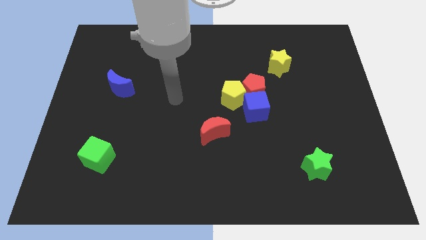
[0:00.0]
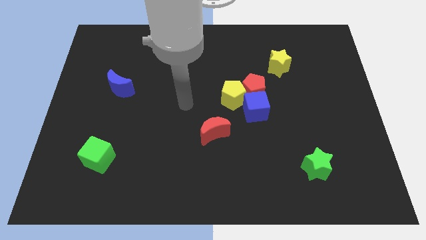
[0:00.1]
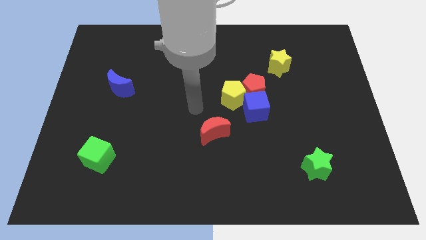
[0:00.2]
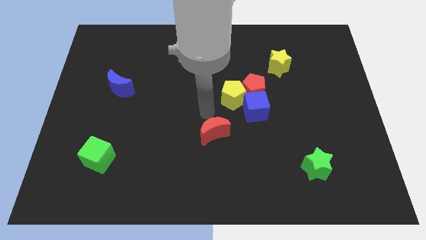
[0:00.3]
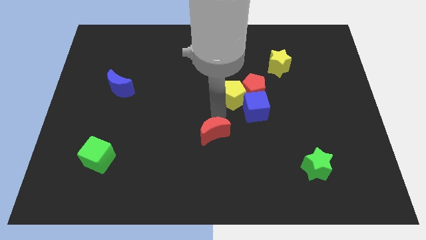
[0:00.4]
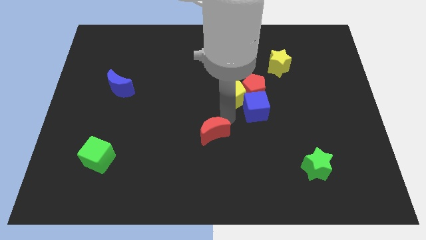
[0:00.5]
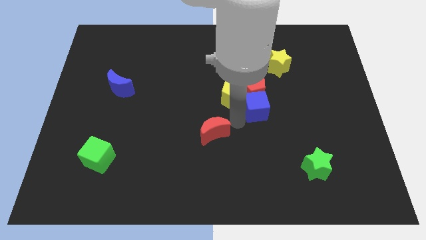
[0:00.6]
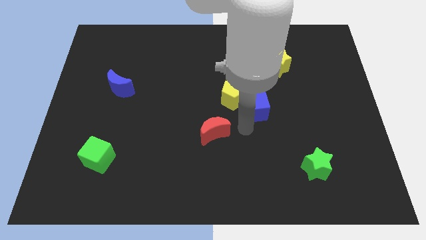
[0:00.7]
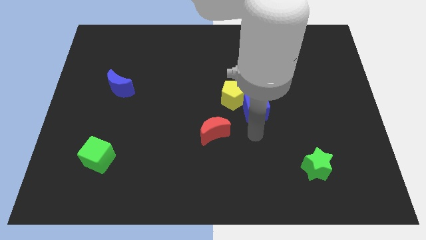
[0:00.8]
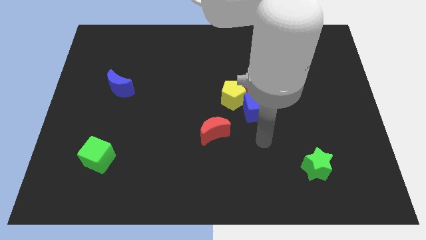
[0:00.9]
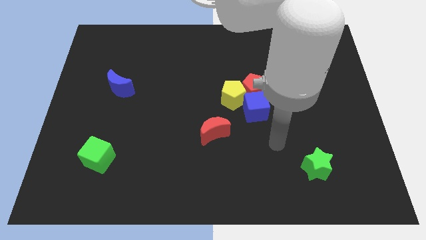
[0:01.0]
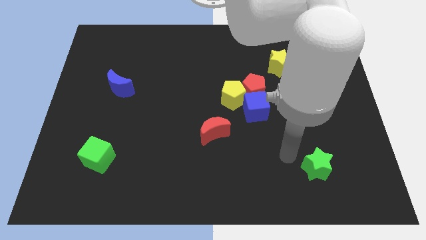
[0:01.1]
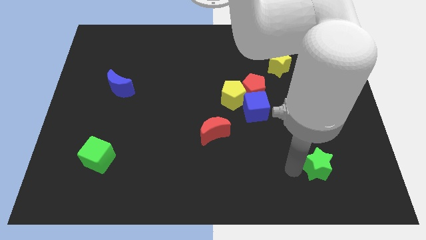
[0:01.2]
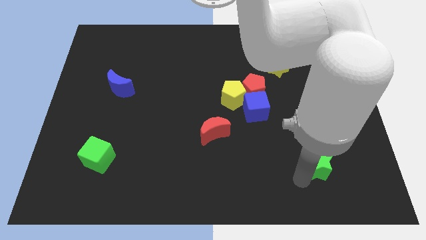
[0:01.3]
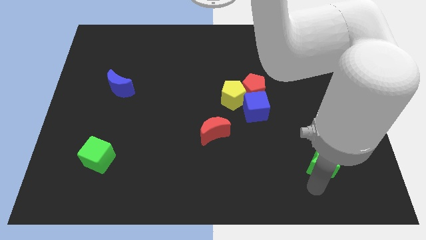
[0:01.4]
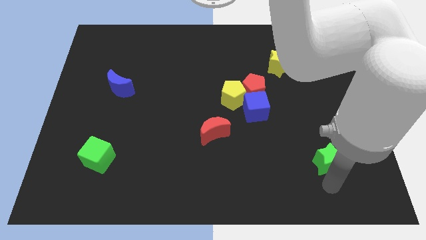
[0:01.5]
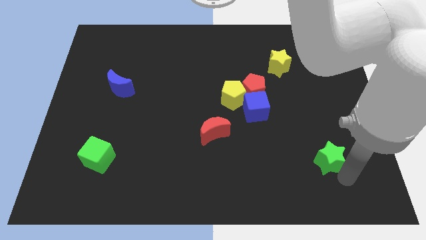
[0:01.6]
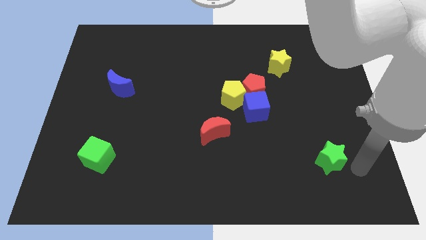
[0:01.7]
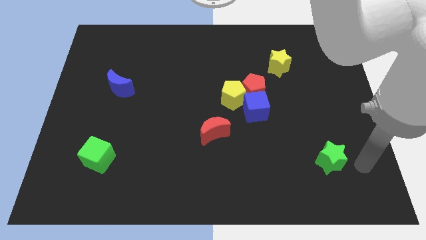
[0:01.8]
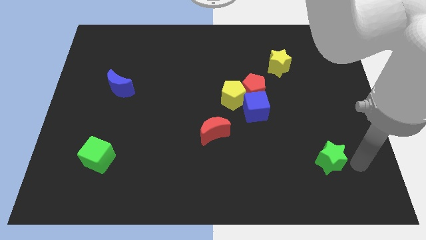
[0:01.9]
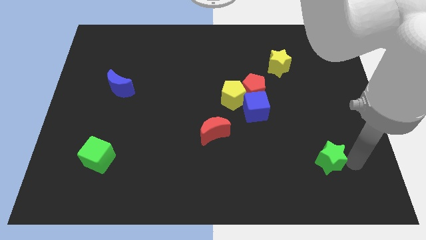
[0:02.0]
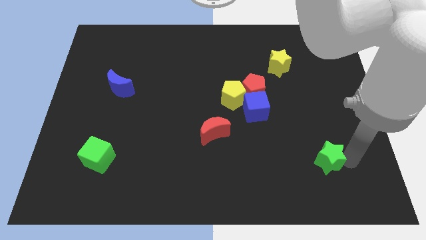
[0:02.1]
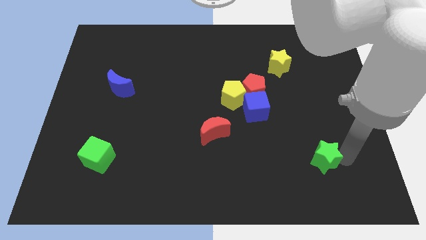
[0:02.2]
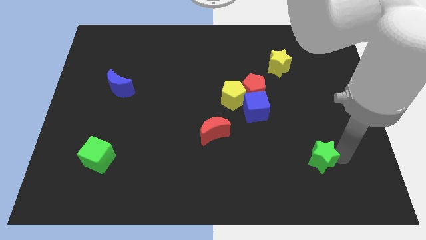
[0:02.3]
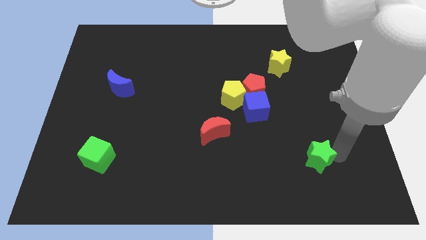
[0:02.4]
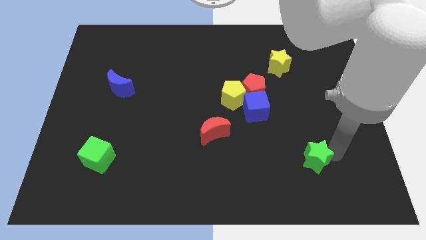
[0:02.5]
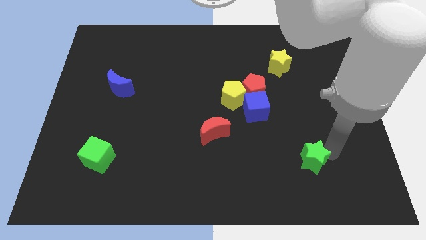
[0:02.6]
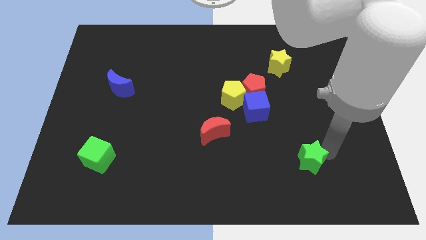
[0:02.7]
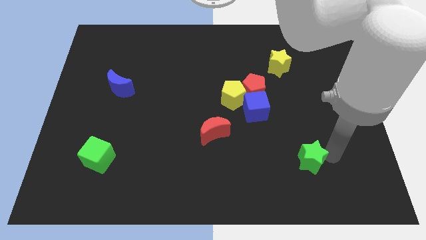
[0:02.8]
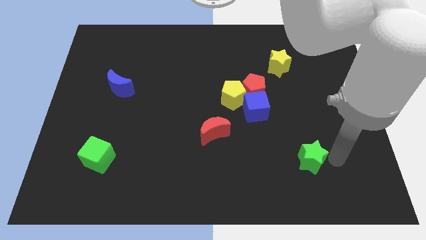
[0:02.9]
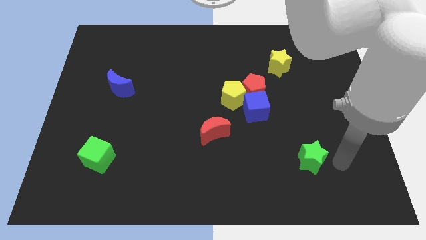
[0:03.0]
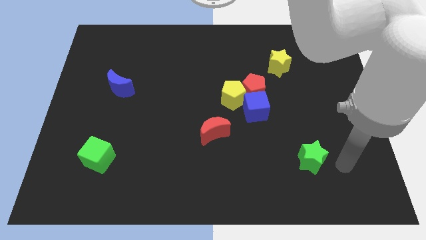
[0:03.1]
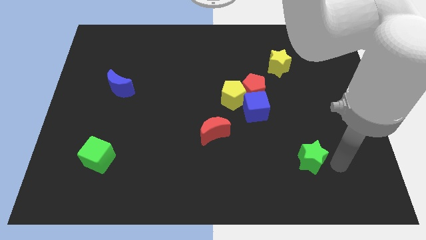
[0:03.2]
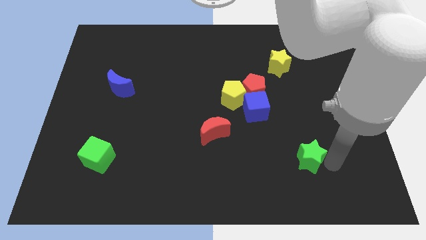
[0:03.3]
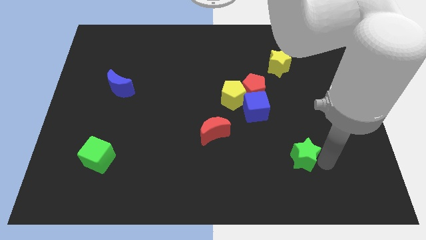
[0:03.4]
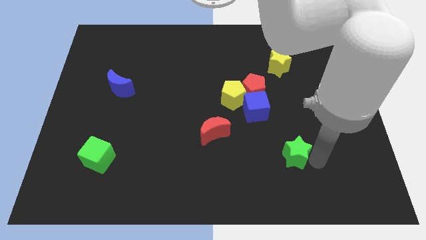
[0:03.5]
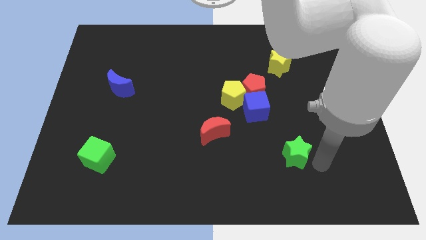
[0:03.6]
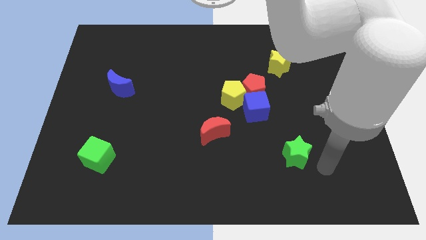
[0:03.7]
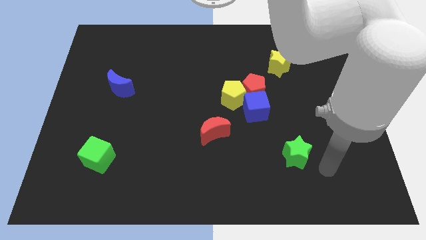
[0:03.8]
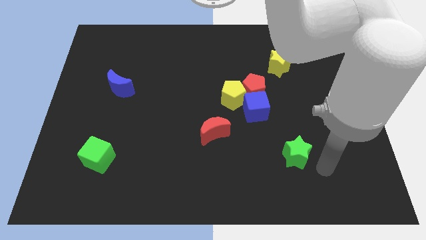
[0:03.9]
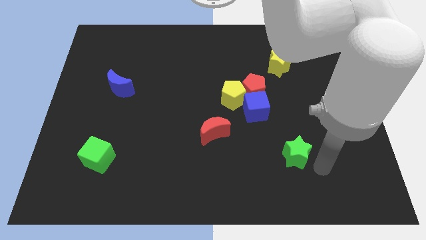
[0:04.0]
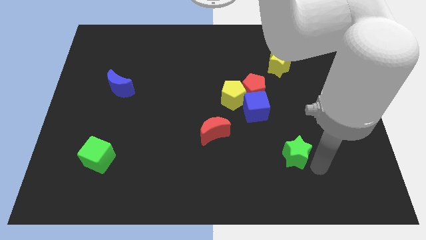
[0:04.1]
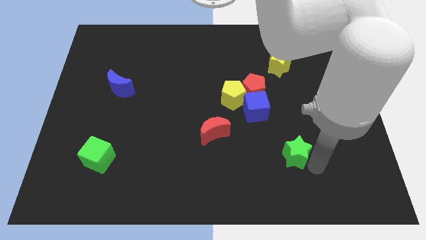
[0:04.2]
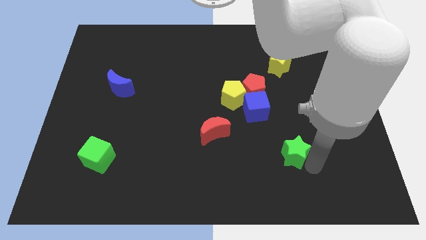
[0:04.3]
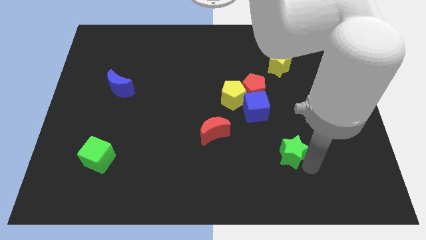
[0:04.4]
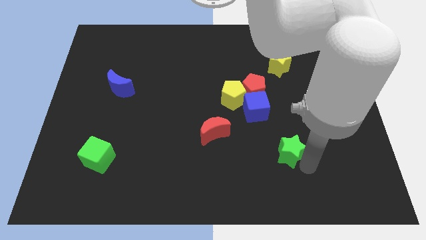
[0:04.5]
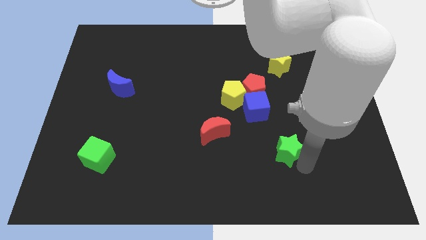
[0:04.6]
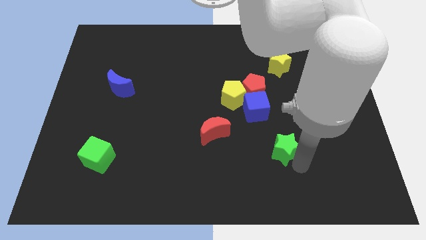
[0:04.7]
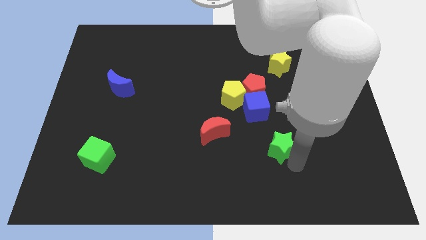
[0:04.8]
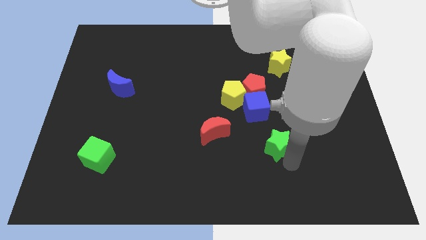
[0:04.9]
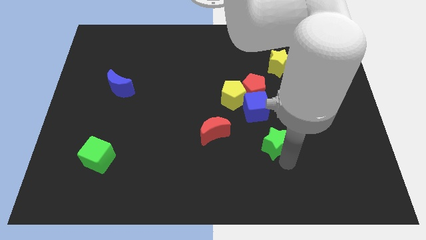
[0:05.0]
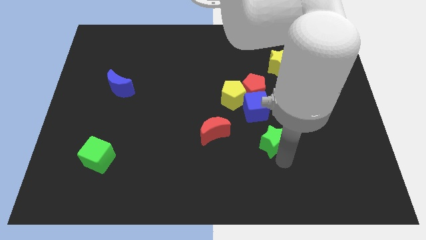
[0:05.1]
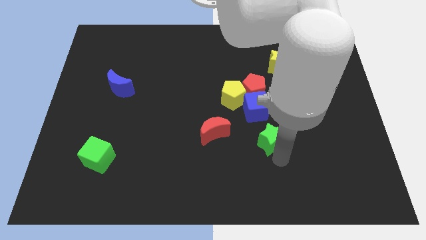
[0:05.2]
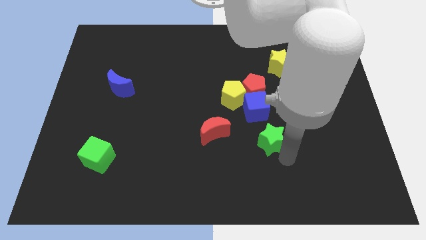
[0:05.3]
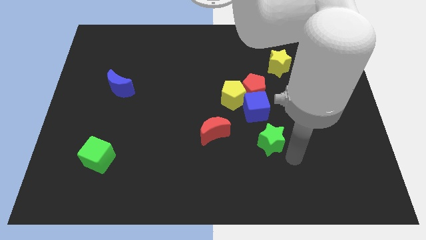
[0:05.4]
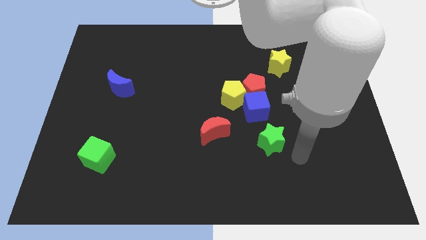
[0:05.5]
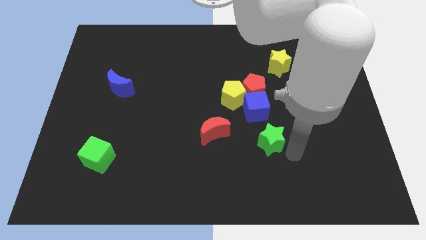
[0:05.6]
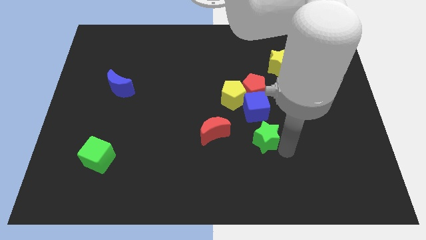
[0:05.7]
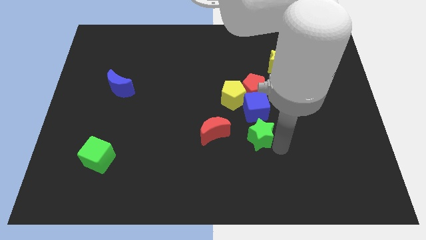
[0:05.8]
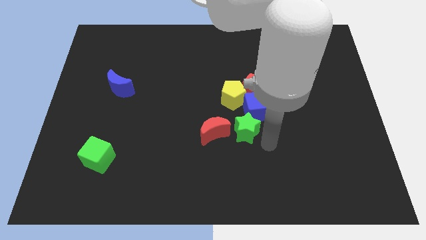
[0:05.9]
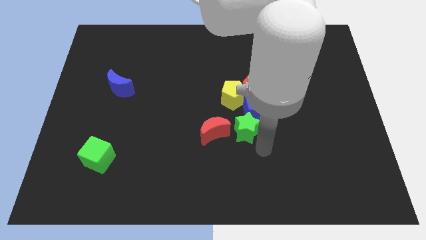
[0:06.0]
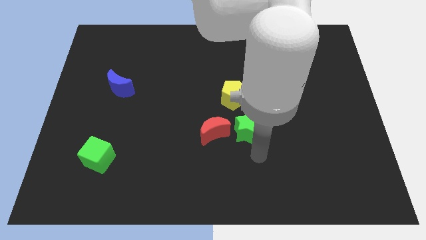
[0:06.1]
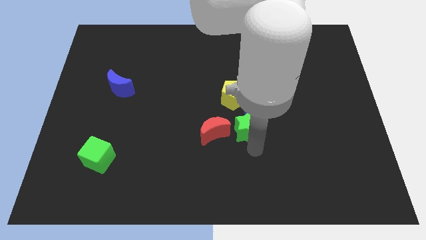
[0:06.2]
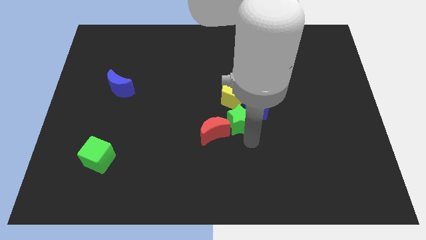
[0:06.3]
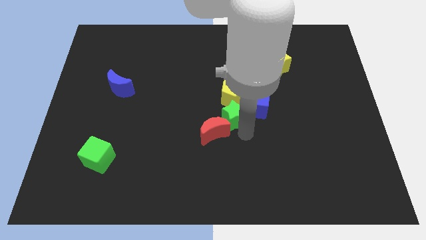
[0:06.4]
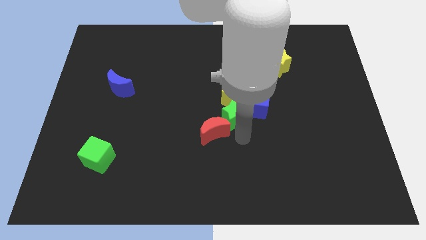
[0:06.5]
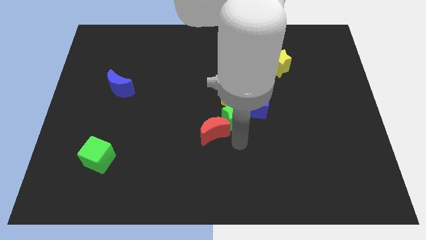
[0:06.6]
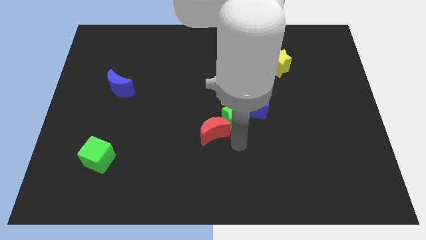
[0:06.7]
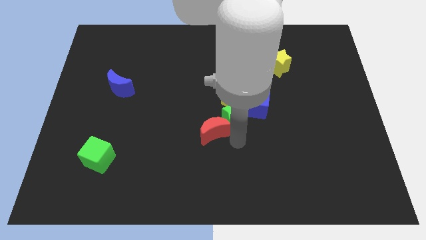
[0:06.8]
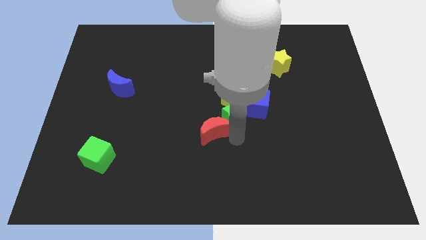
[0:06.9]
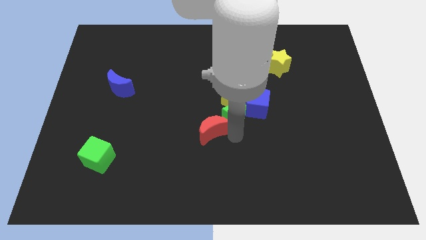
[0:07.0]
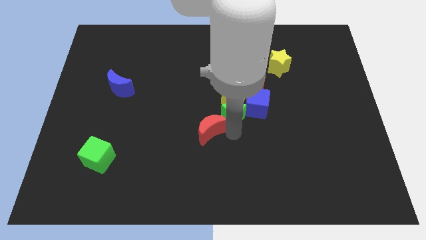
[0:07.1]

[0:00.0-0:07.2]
slide the green star towards the yellow pentagon

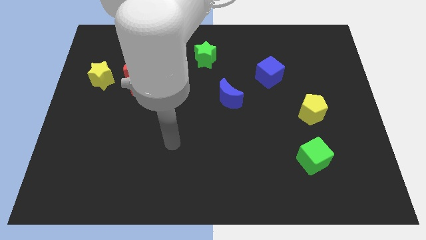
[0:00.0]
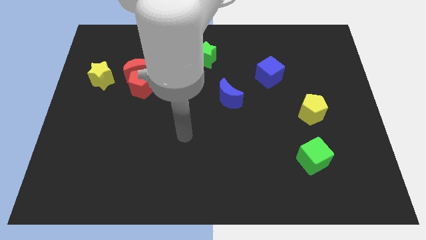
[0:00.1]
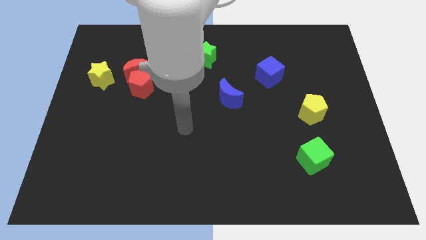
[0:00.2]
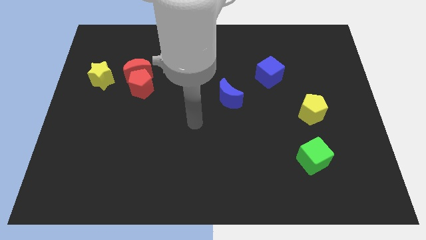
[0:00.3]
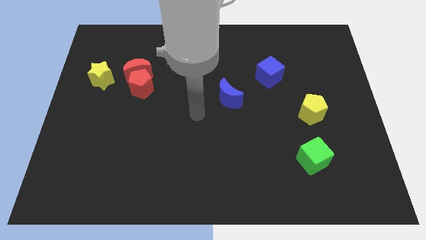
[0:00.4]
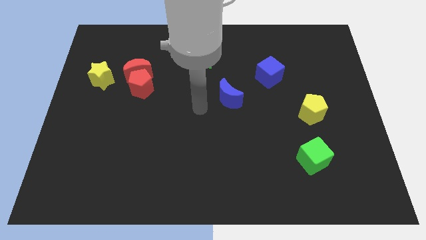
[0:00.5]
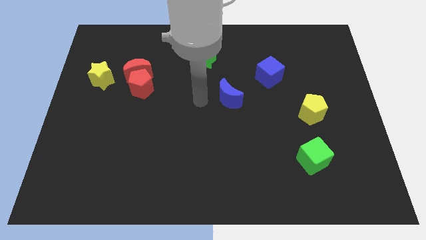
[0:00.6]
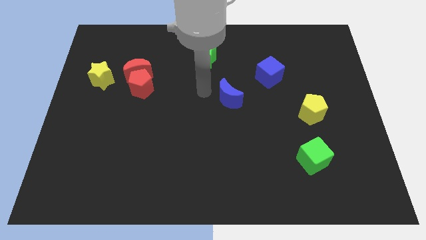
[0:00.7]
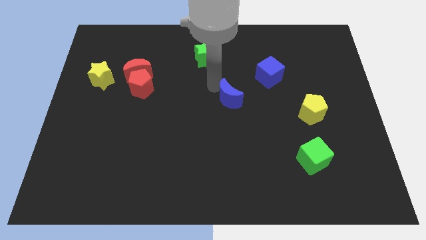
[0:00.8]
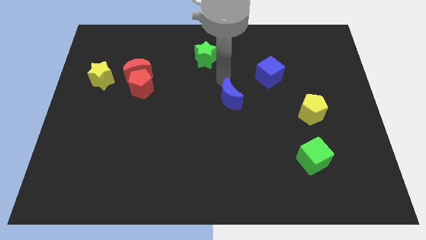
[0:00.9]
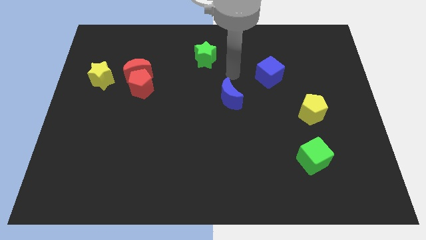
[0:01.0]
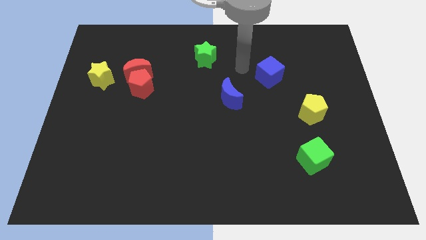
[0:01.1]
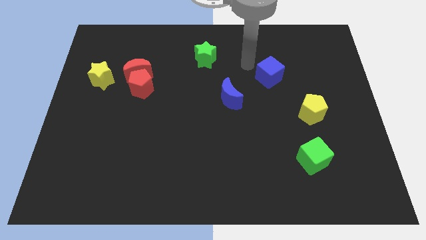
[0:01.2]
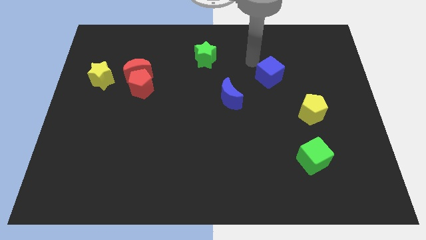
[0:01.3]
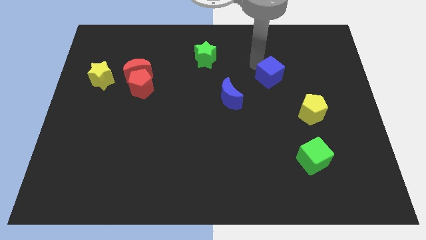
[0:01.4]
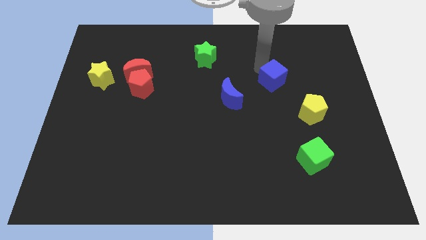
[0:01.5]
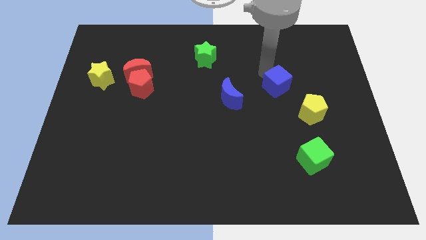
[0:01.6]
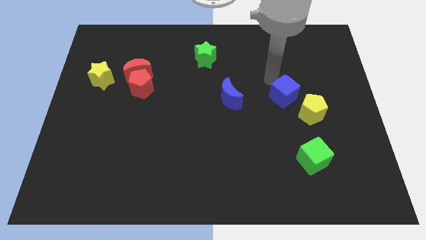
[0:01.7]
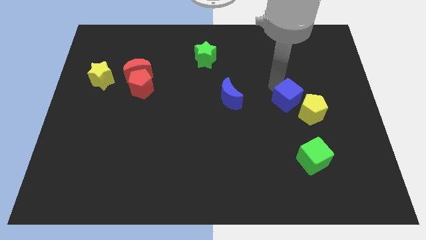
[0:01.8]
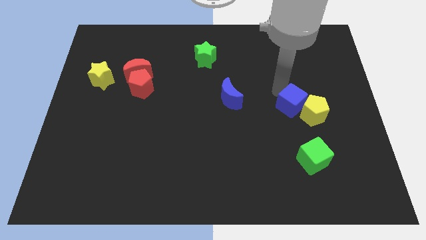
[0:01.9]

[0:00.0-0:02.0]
slide the blue cube to the yellow pentagon
